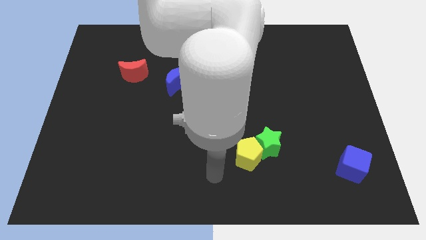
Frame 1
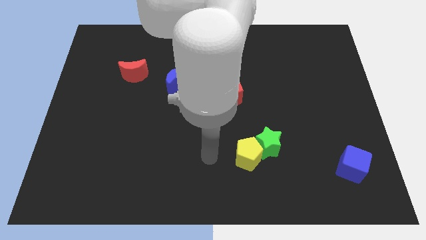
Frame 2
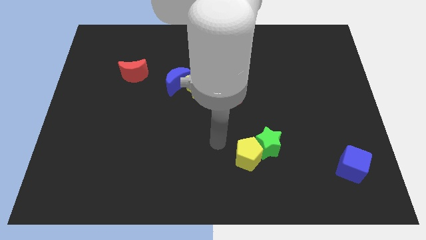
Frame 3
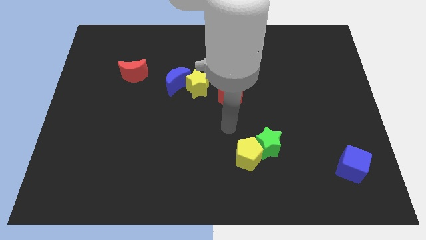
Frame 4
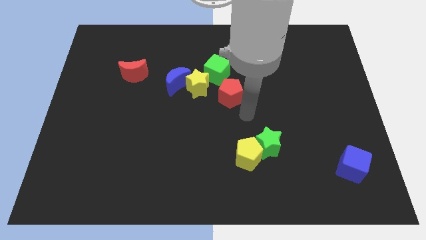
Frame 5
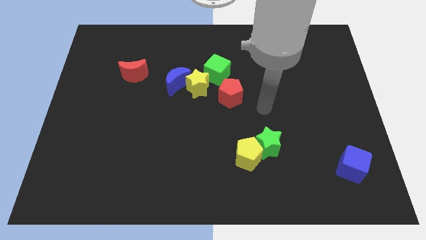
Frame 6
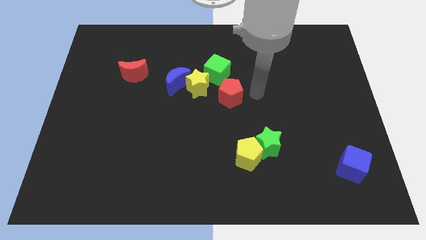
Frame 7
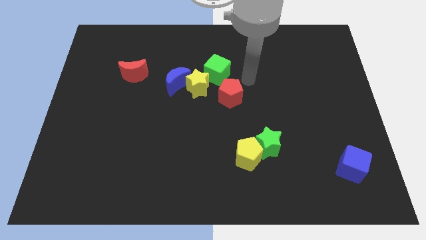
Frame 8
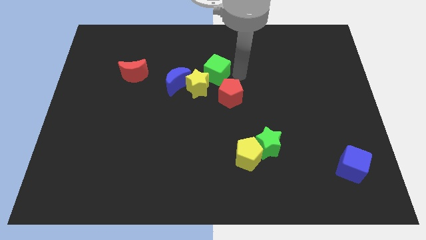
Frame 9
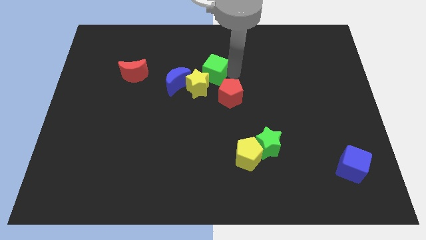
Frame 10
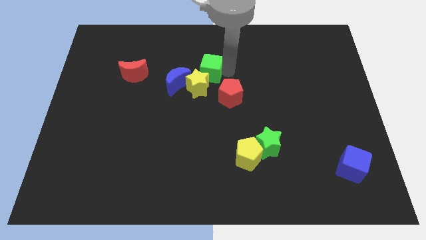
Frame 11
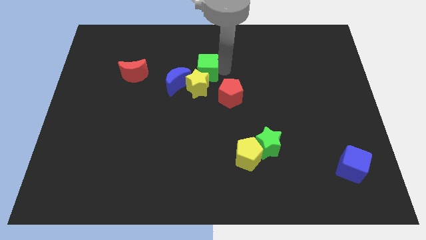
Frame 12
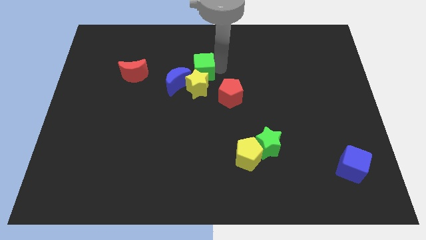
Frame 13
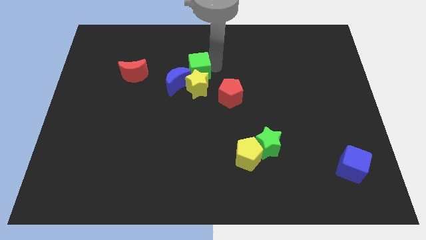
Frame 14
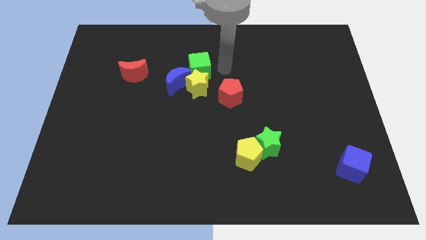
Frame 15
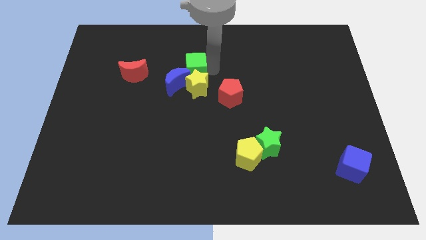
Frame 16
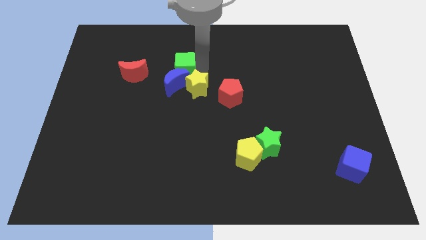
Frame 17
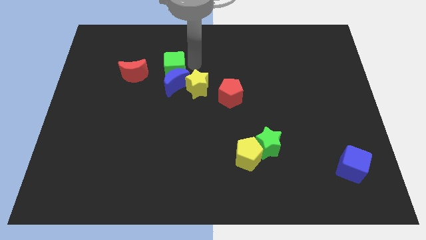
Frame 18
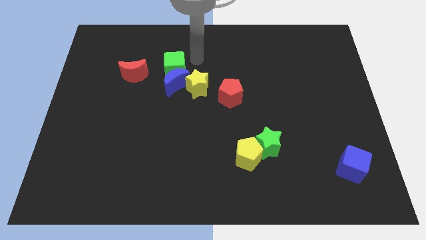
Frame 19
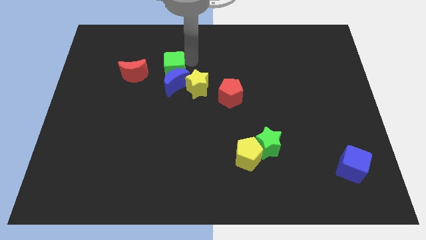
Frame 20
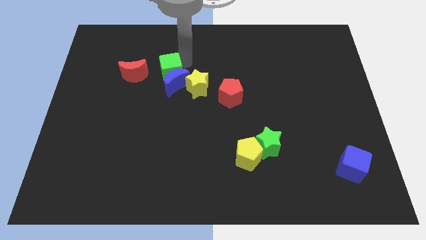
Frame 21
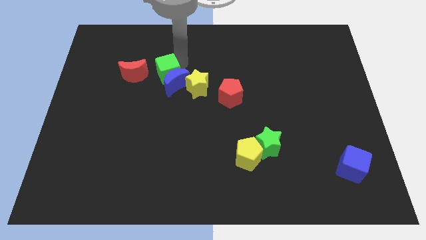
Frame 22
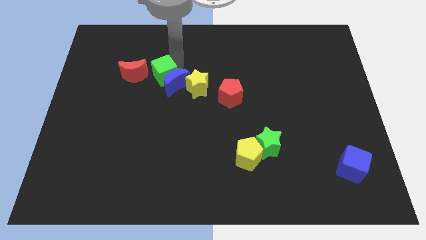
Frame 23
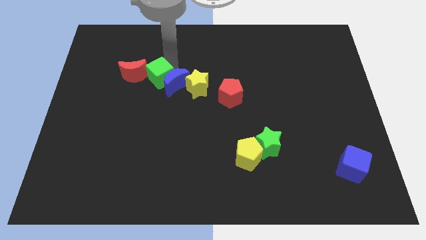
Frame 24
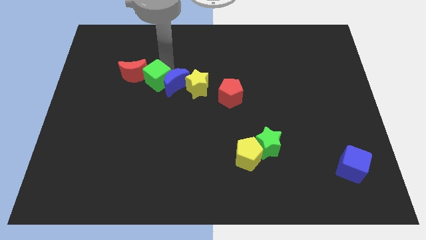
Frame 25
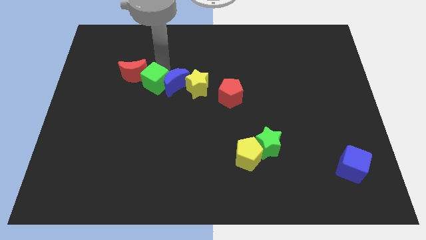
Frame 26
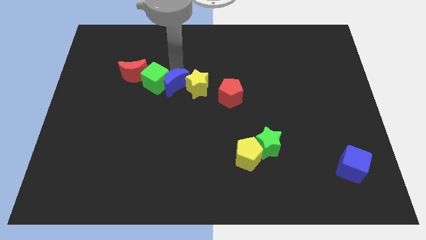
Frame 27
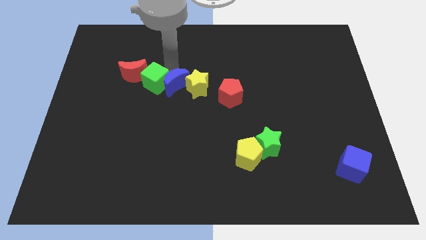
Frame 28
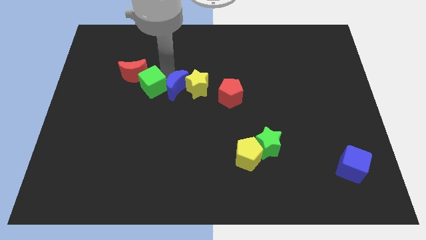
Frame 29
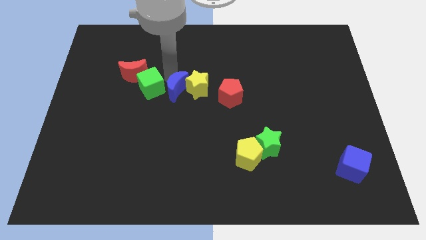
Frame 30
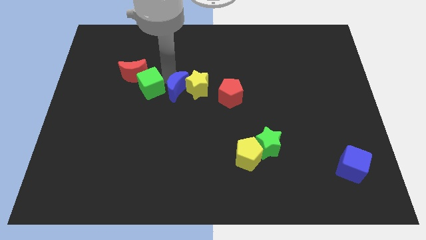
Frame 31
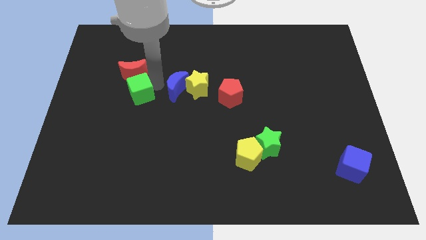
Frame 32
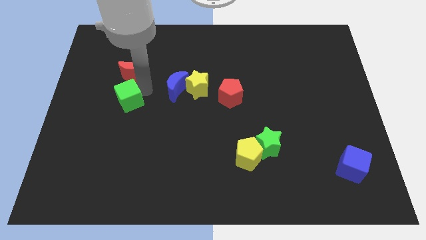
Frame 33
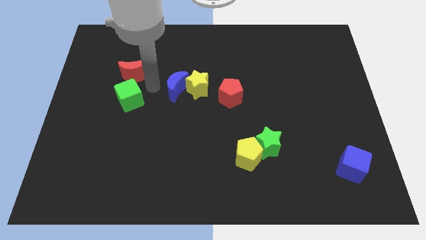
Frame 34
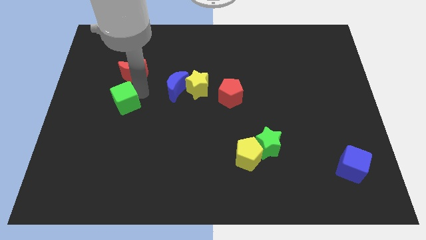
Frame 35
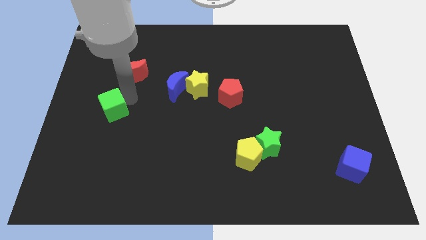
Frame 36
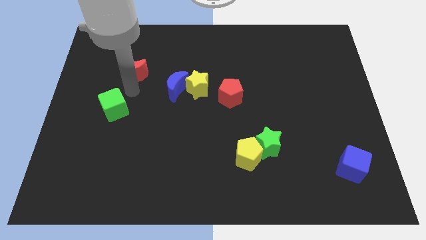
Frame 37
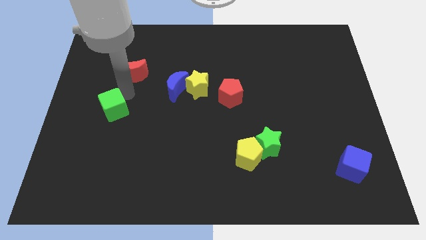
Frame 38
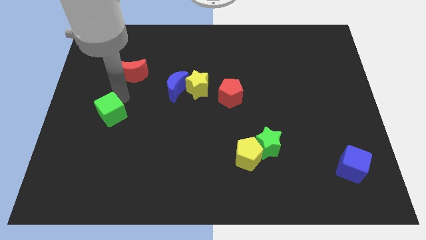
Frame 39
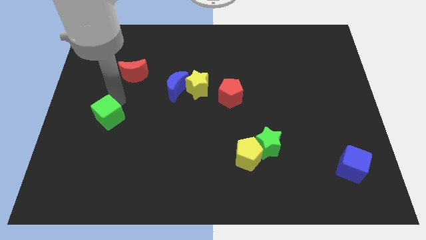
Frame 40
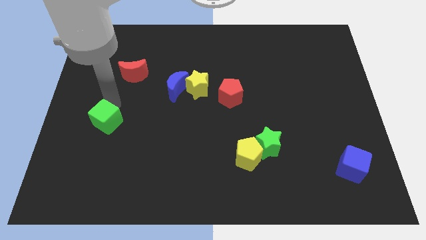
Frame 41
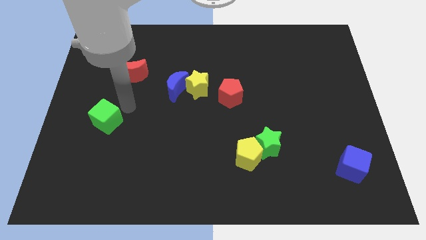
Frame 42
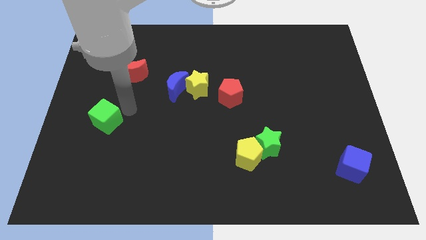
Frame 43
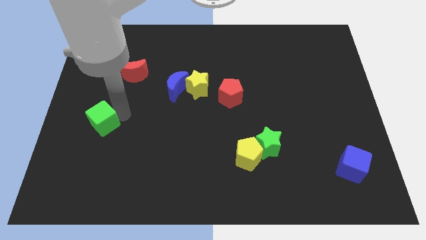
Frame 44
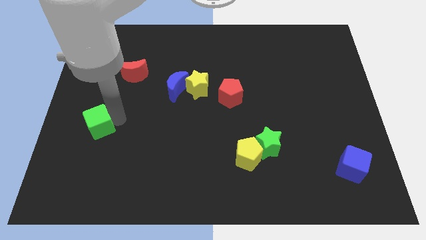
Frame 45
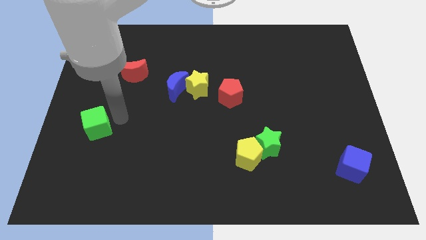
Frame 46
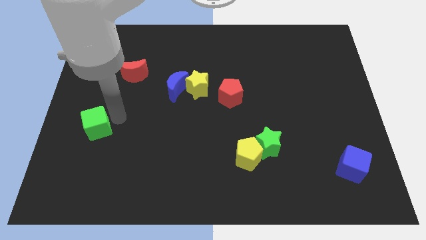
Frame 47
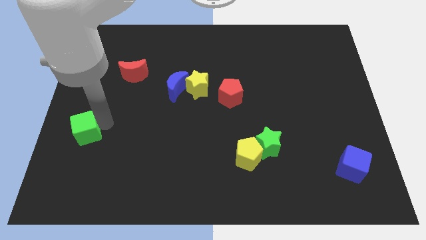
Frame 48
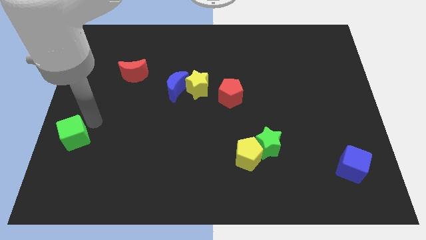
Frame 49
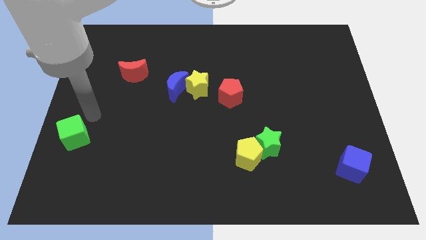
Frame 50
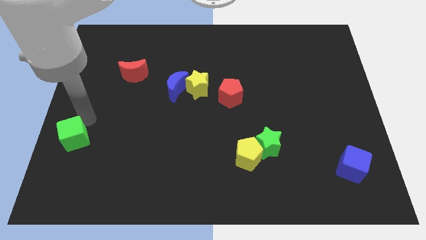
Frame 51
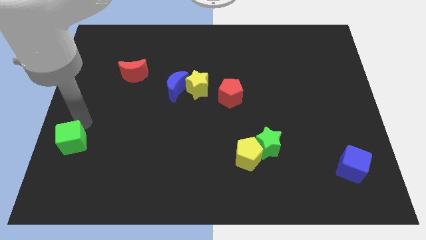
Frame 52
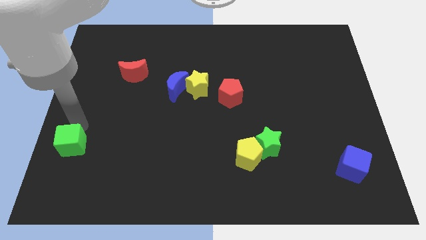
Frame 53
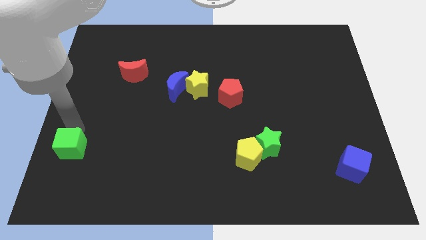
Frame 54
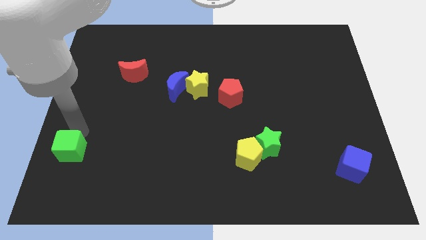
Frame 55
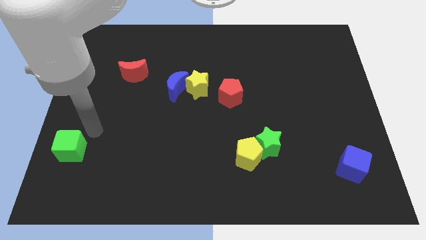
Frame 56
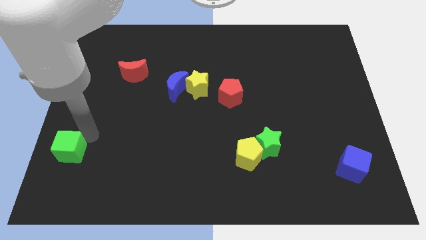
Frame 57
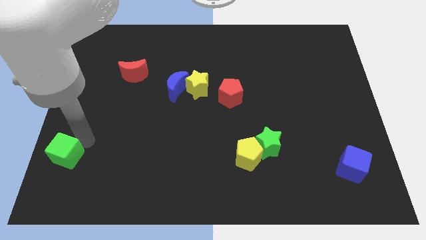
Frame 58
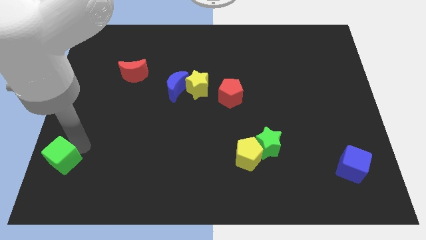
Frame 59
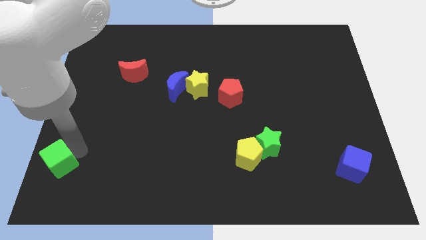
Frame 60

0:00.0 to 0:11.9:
push the green cube to the bottom left
